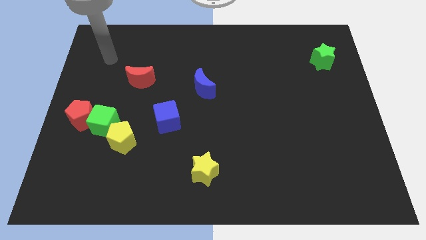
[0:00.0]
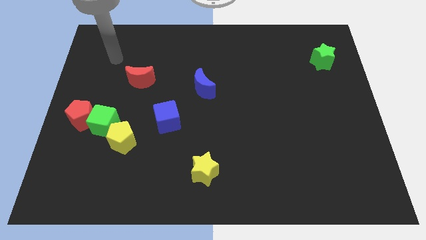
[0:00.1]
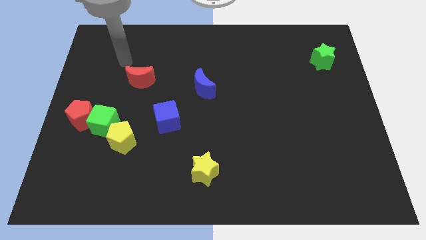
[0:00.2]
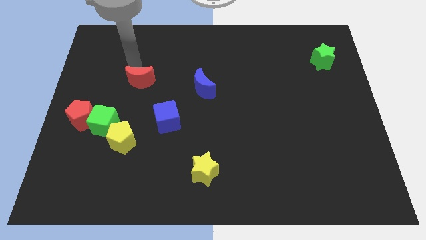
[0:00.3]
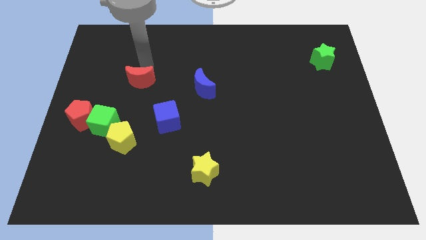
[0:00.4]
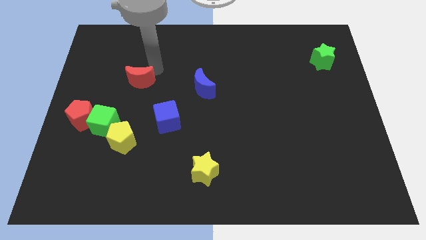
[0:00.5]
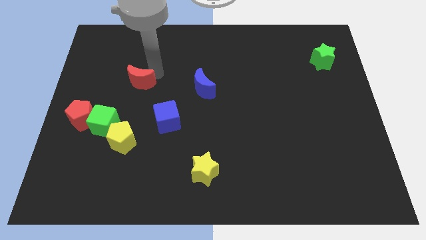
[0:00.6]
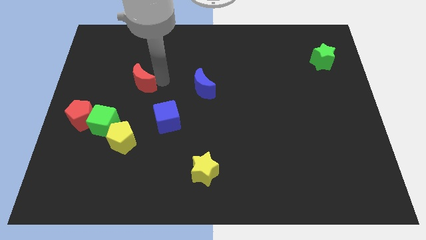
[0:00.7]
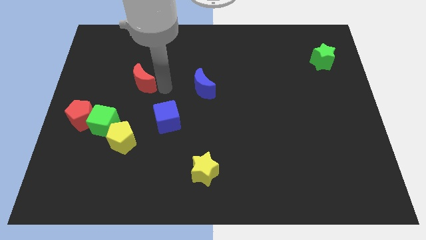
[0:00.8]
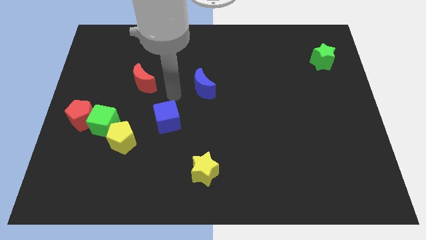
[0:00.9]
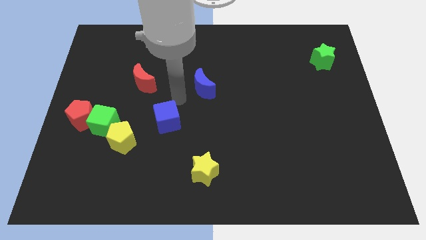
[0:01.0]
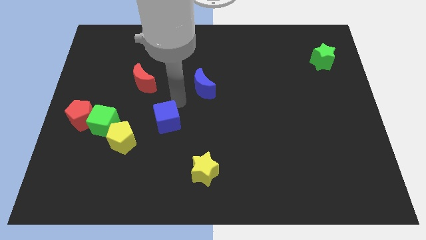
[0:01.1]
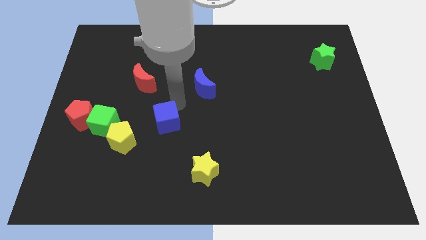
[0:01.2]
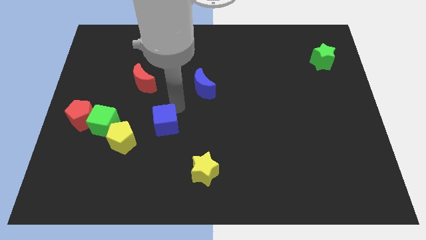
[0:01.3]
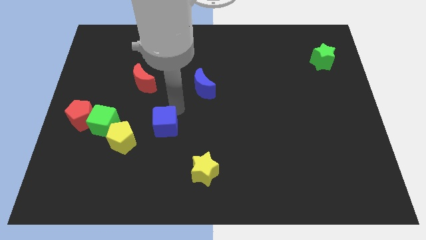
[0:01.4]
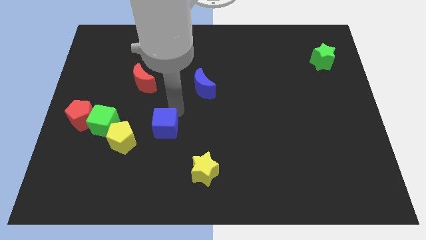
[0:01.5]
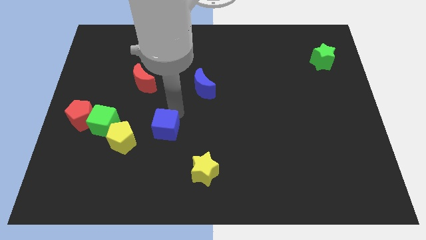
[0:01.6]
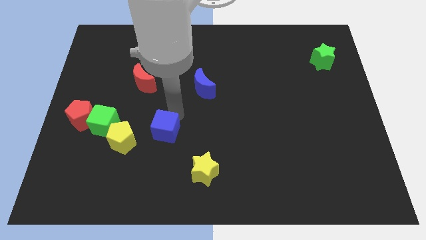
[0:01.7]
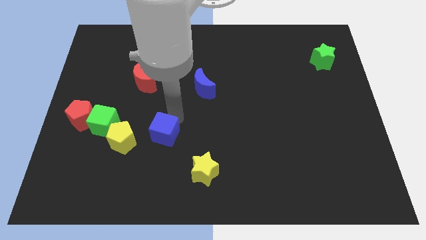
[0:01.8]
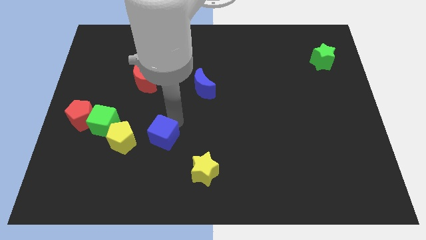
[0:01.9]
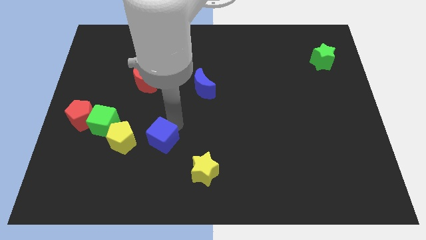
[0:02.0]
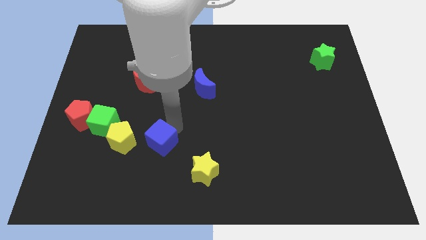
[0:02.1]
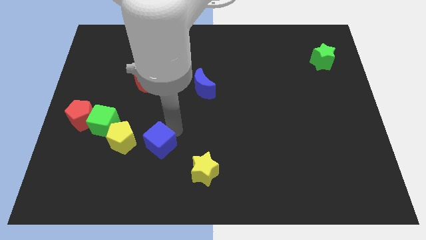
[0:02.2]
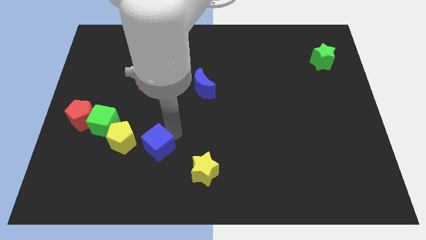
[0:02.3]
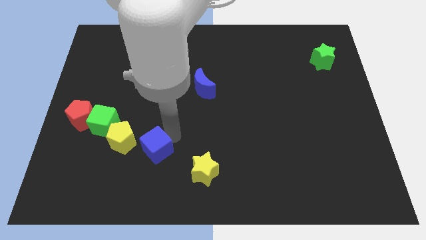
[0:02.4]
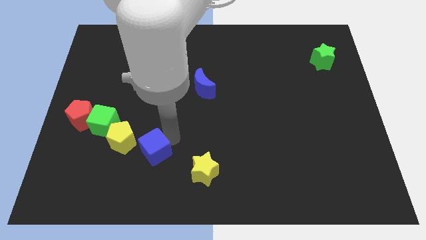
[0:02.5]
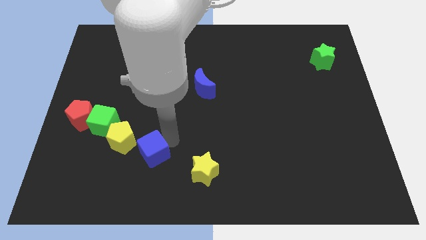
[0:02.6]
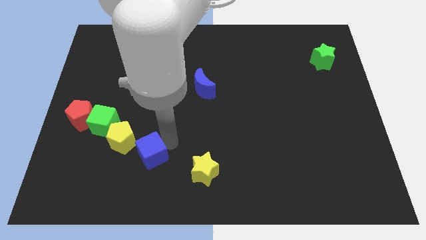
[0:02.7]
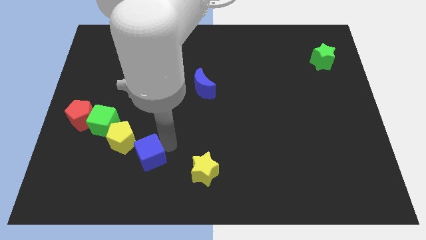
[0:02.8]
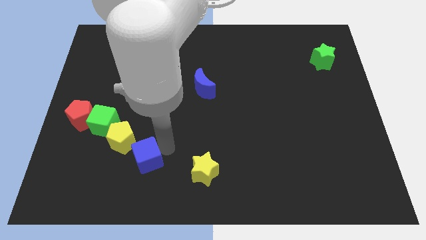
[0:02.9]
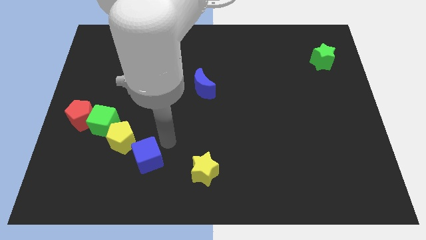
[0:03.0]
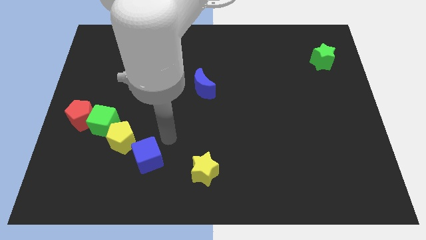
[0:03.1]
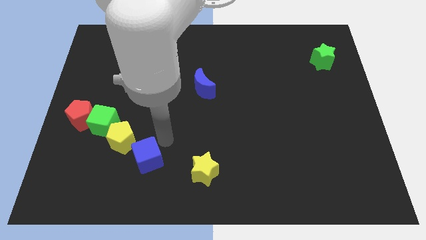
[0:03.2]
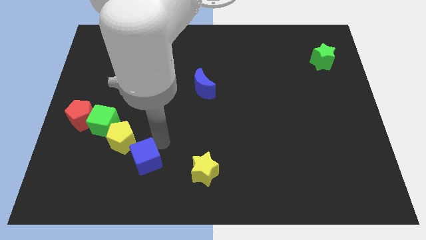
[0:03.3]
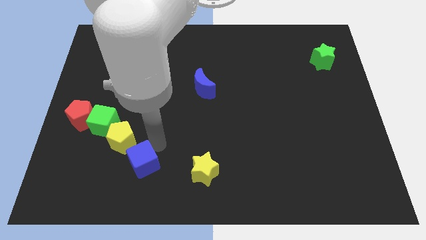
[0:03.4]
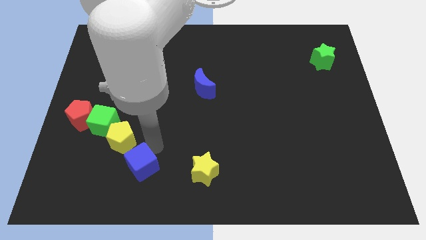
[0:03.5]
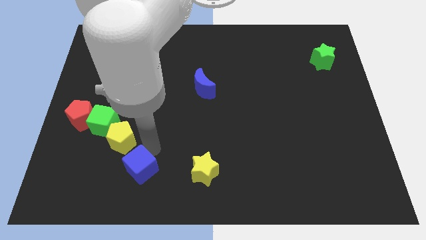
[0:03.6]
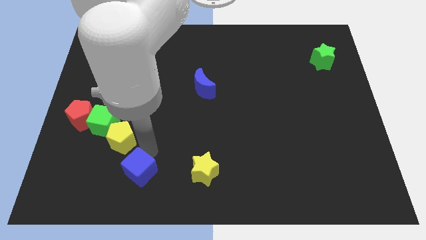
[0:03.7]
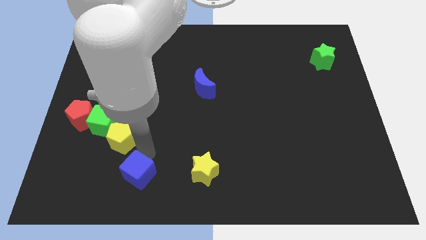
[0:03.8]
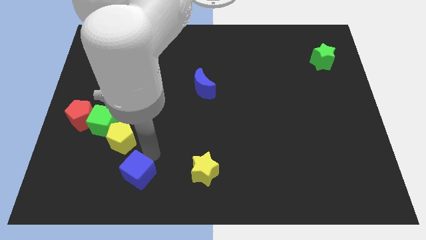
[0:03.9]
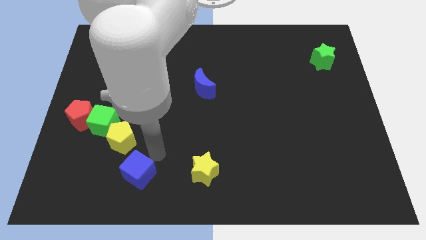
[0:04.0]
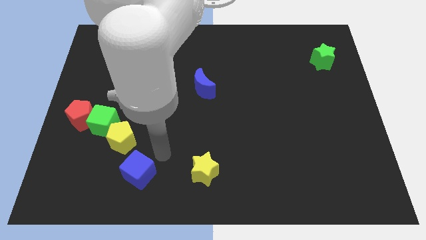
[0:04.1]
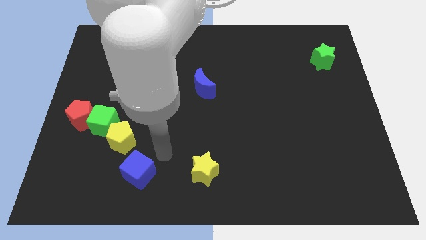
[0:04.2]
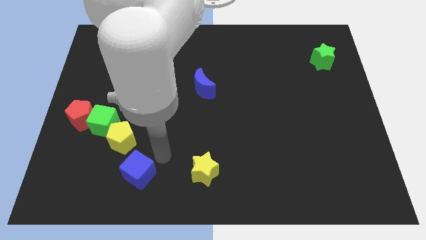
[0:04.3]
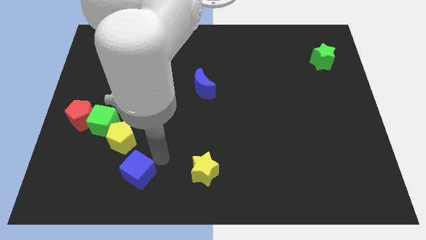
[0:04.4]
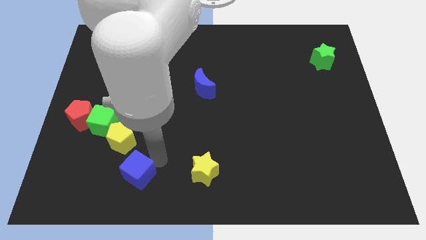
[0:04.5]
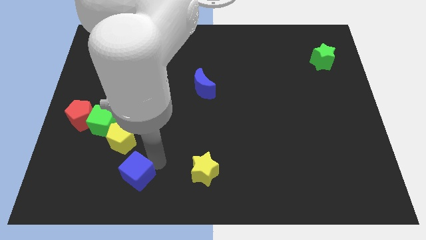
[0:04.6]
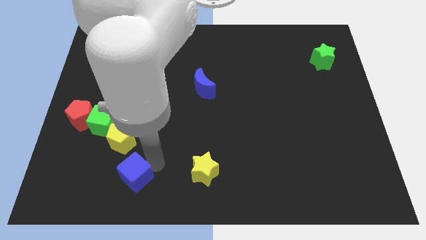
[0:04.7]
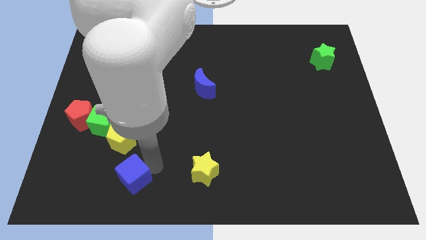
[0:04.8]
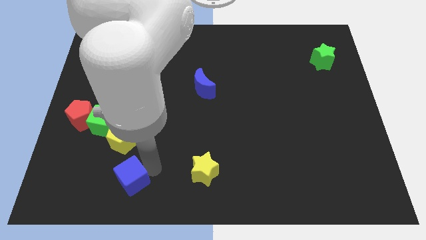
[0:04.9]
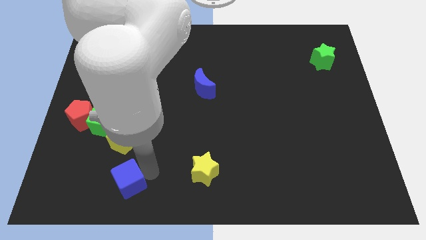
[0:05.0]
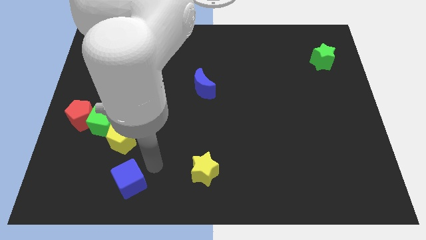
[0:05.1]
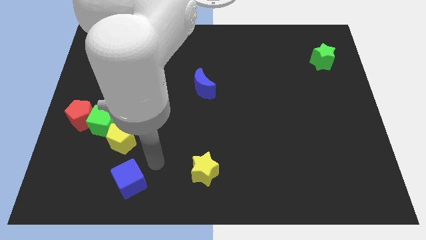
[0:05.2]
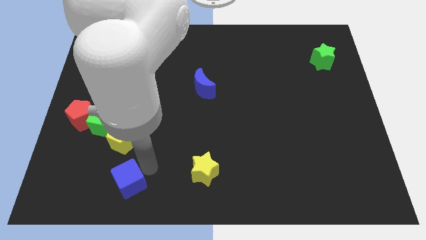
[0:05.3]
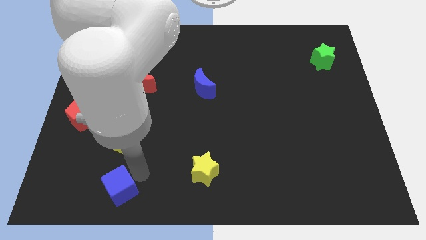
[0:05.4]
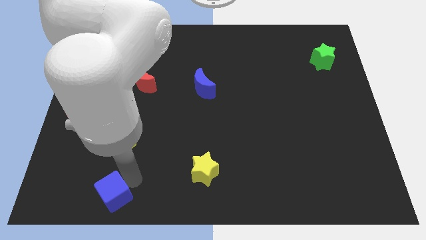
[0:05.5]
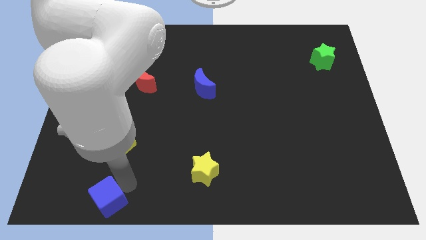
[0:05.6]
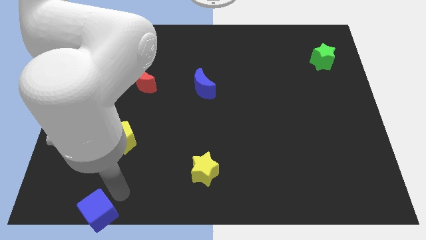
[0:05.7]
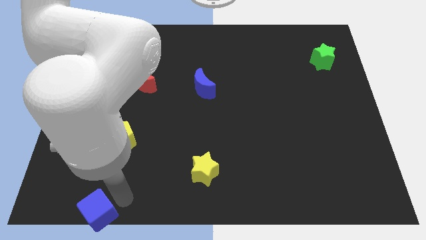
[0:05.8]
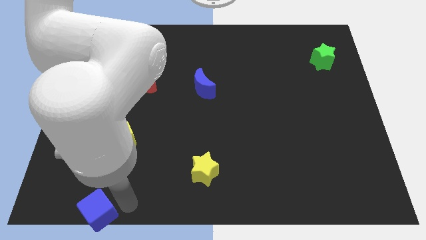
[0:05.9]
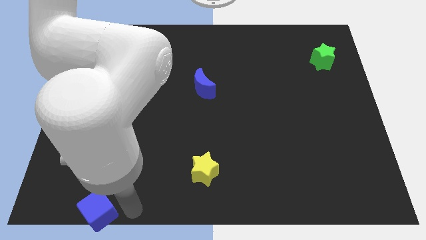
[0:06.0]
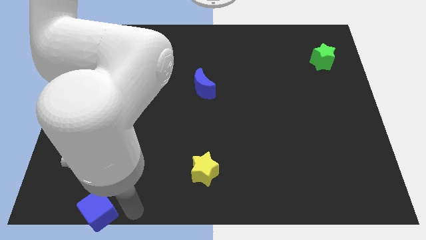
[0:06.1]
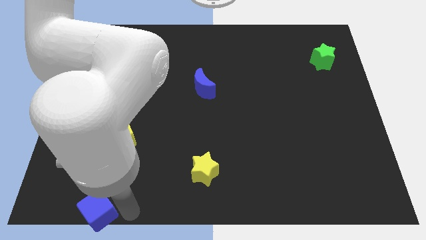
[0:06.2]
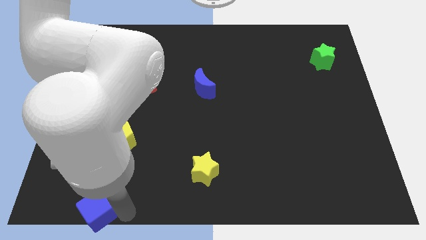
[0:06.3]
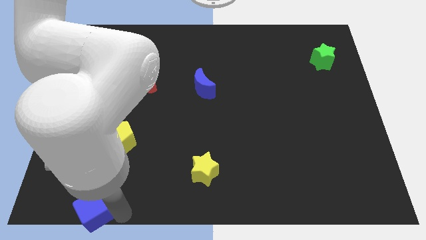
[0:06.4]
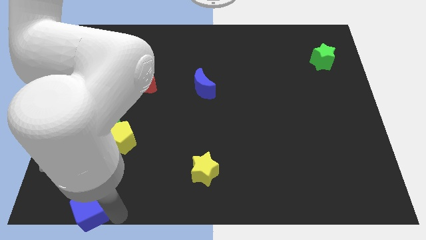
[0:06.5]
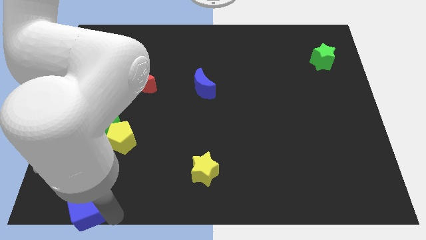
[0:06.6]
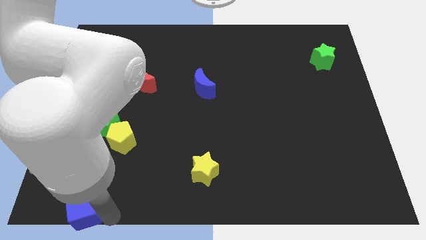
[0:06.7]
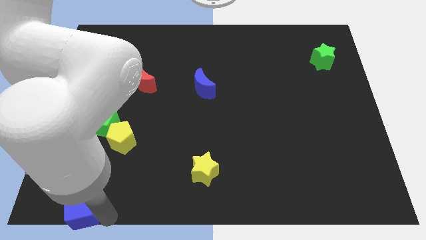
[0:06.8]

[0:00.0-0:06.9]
put the blue cube to the bottom left

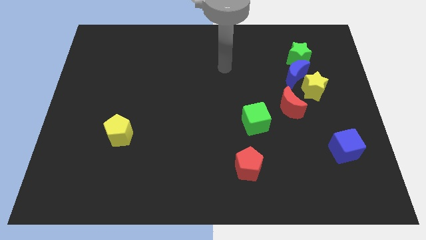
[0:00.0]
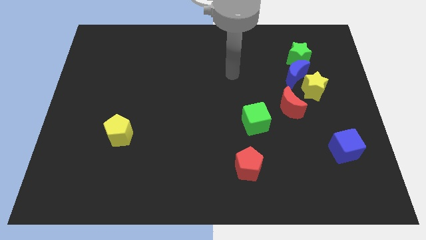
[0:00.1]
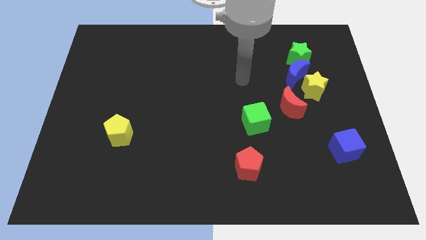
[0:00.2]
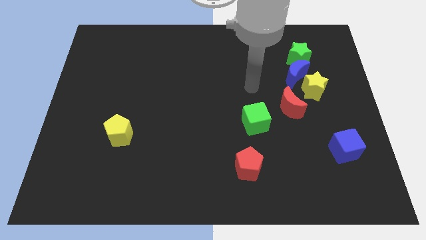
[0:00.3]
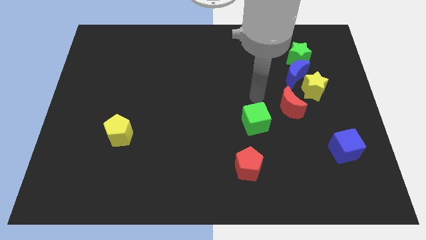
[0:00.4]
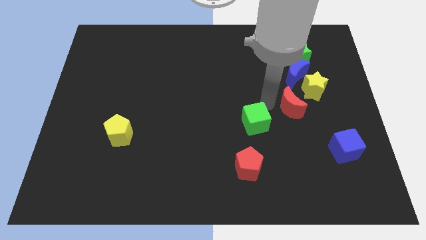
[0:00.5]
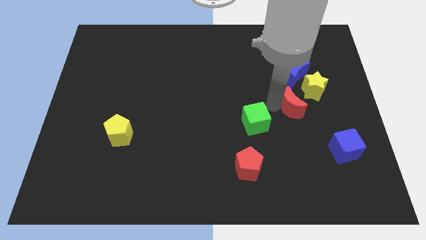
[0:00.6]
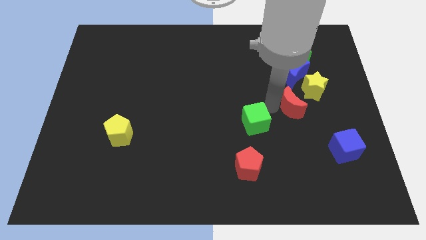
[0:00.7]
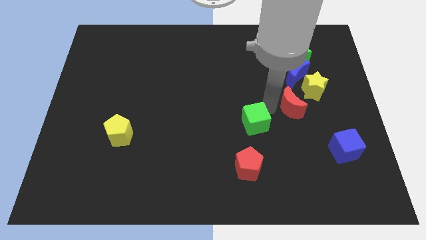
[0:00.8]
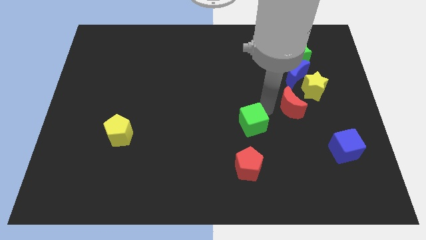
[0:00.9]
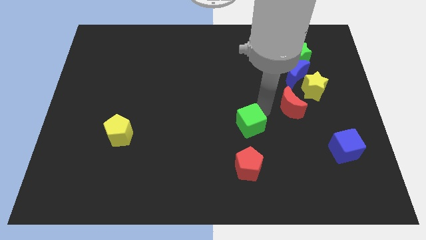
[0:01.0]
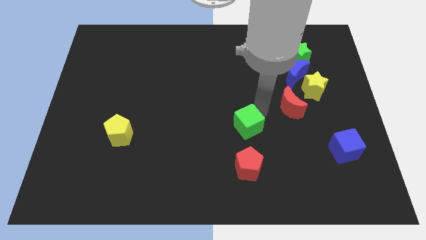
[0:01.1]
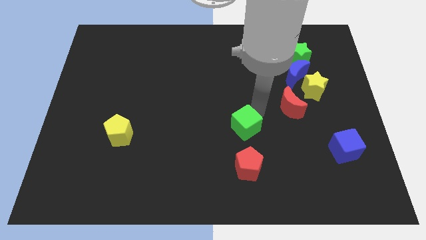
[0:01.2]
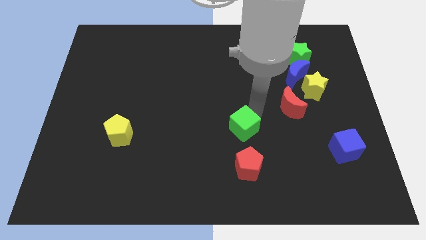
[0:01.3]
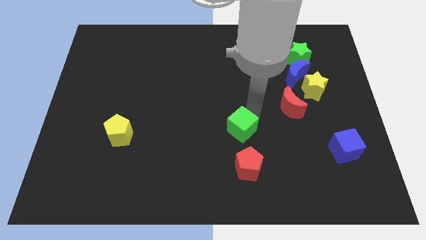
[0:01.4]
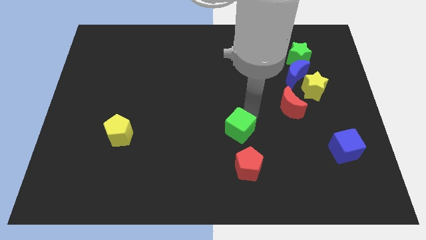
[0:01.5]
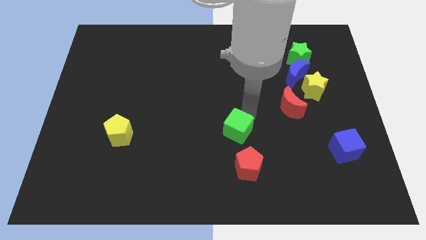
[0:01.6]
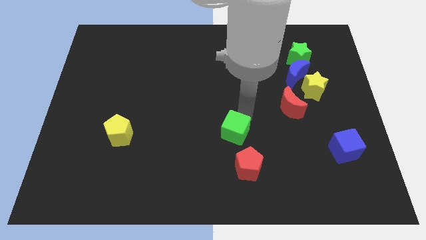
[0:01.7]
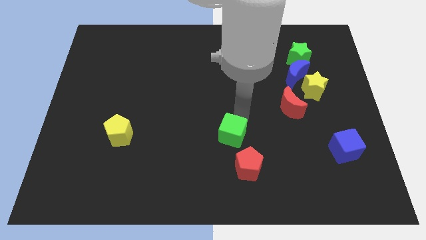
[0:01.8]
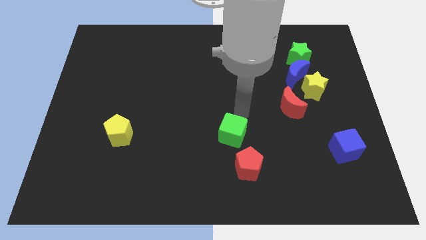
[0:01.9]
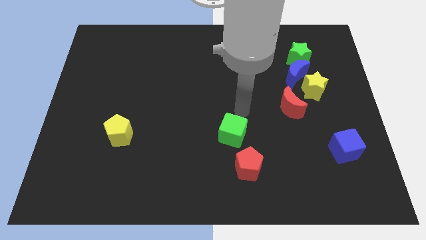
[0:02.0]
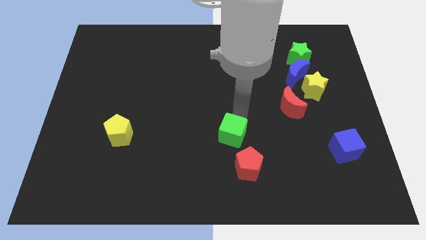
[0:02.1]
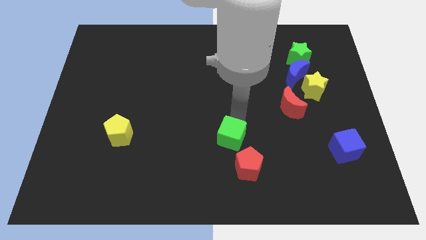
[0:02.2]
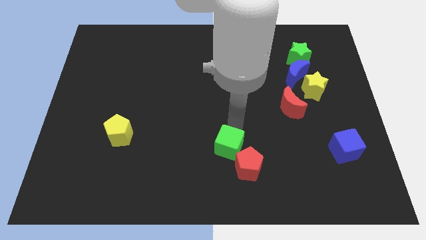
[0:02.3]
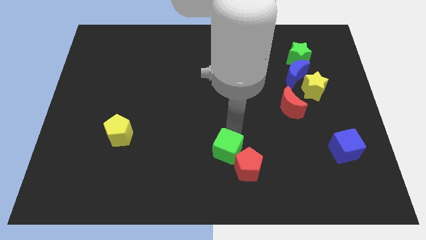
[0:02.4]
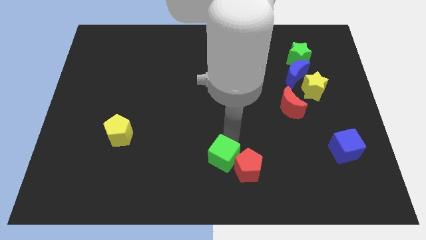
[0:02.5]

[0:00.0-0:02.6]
move the green cube to the bottom
